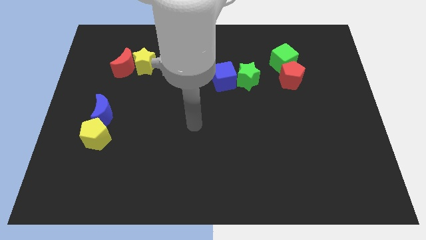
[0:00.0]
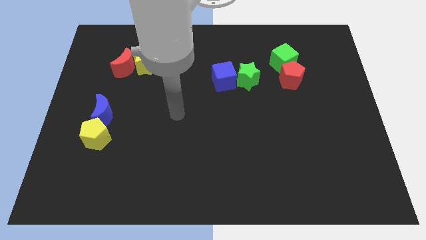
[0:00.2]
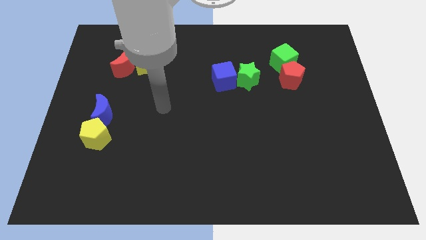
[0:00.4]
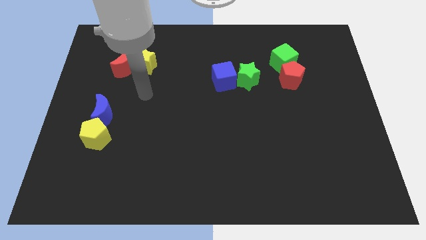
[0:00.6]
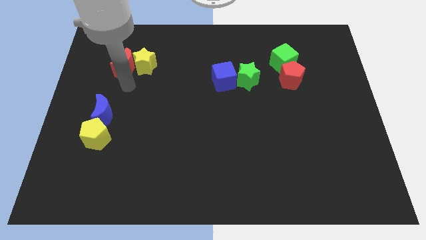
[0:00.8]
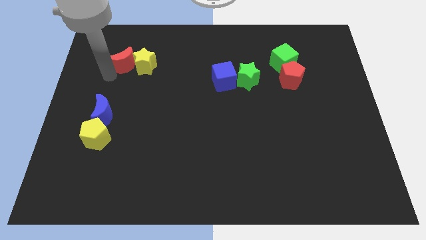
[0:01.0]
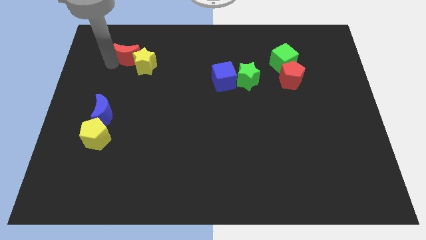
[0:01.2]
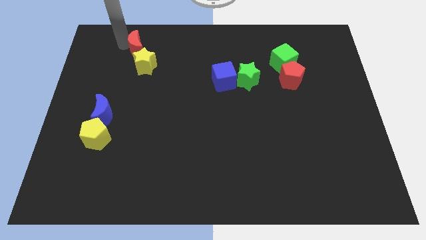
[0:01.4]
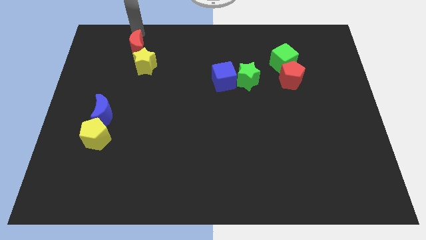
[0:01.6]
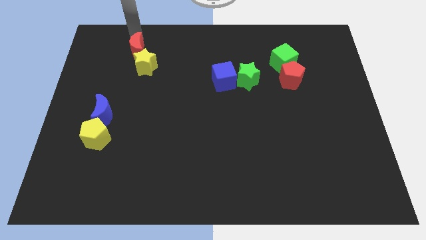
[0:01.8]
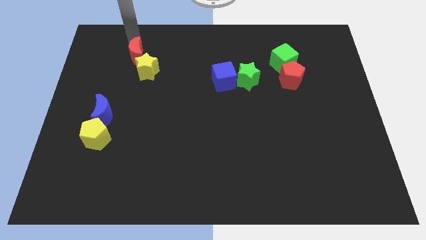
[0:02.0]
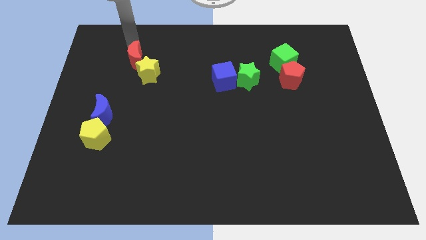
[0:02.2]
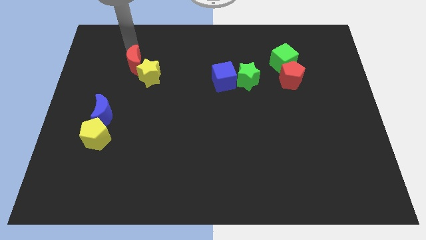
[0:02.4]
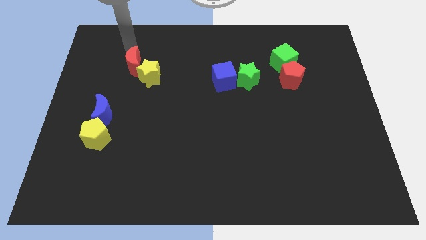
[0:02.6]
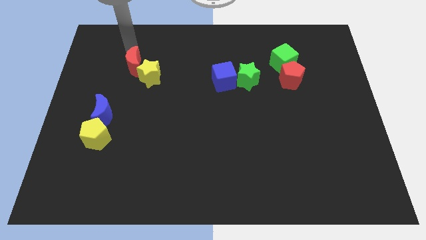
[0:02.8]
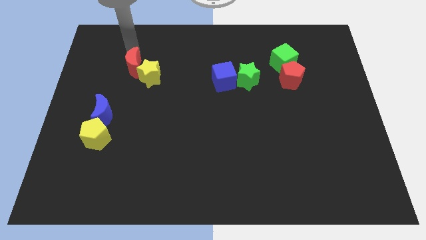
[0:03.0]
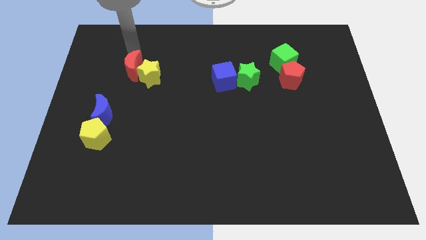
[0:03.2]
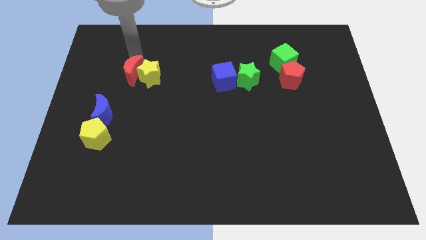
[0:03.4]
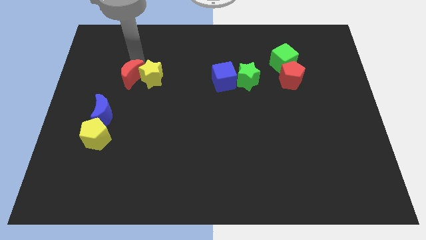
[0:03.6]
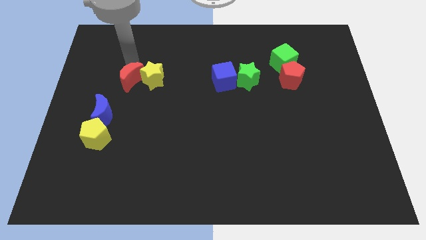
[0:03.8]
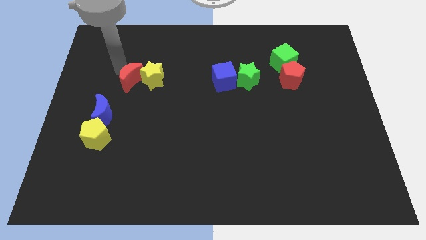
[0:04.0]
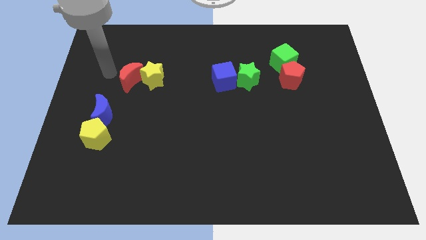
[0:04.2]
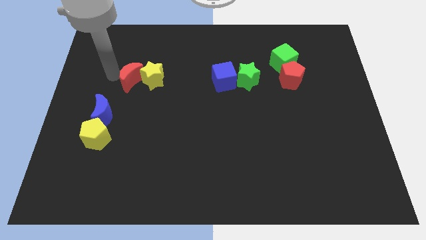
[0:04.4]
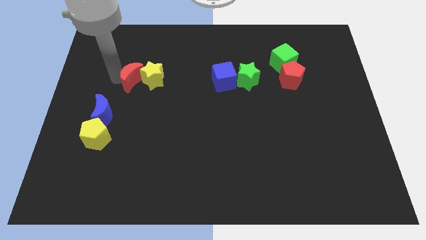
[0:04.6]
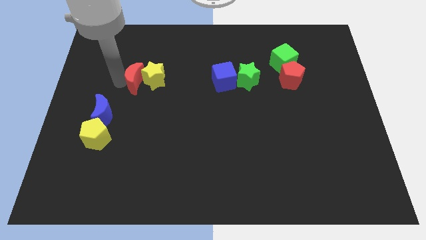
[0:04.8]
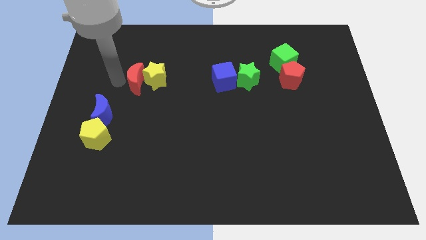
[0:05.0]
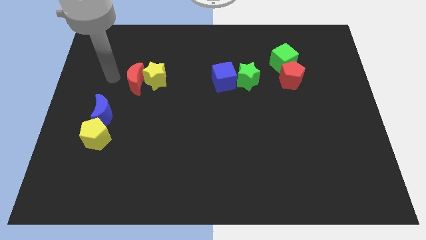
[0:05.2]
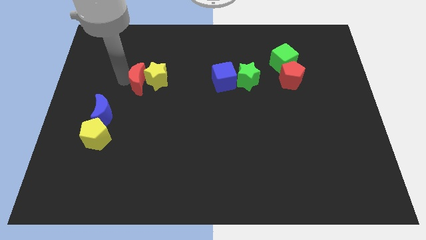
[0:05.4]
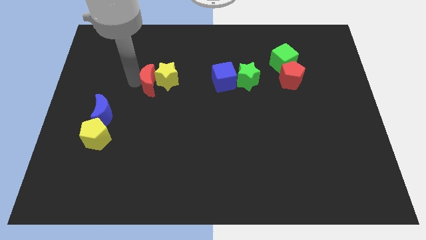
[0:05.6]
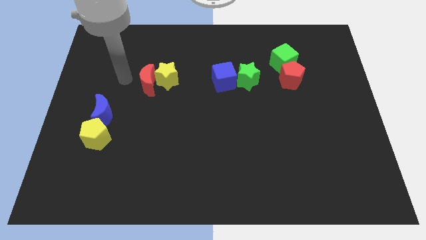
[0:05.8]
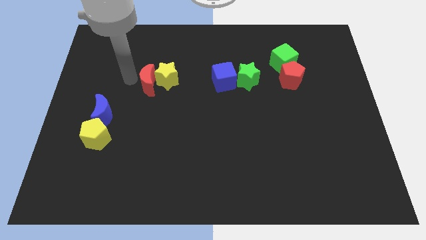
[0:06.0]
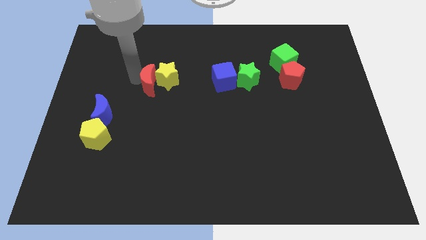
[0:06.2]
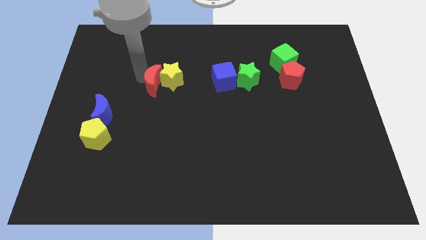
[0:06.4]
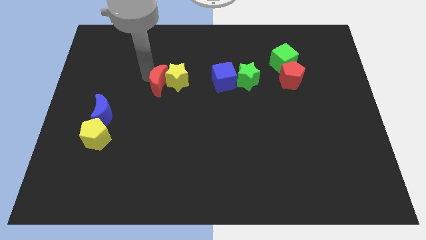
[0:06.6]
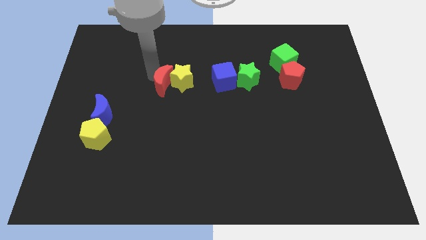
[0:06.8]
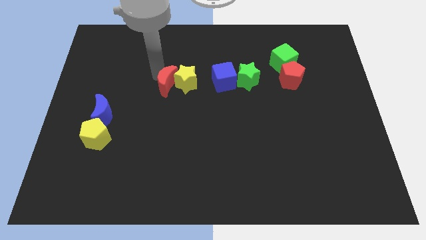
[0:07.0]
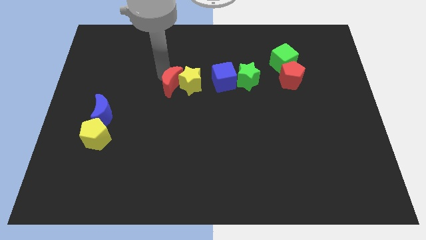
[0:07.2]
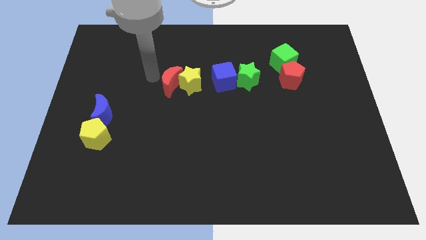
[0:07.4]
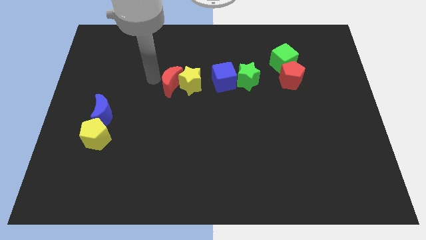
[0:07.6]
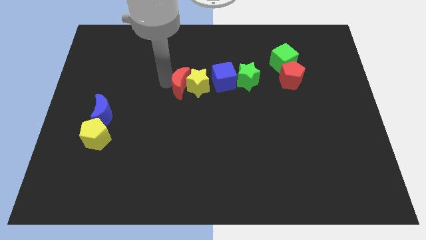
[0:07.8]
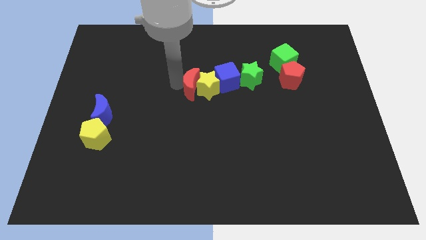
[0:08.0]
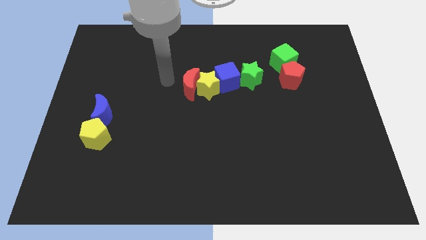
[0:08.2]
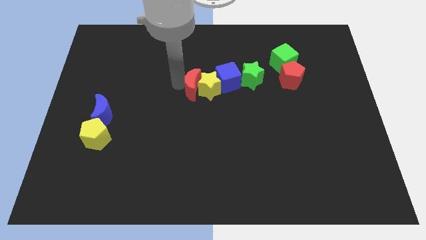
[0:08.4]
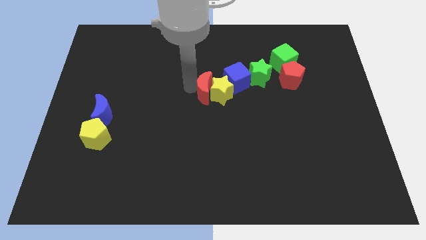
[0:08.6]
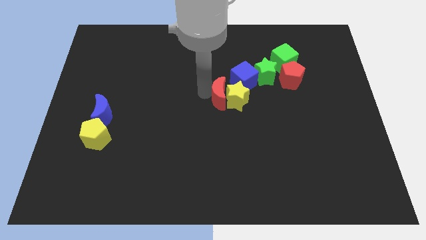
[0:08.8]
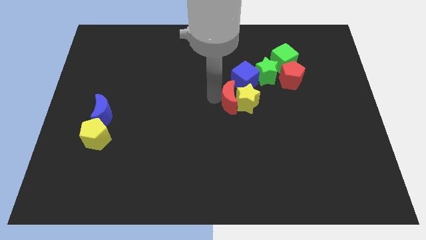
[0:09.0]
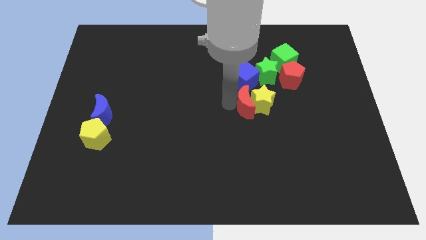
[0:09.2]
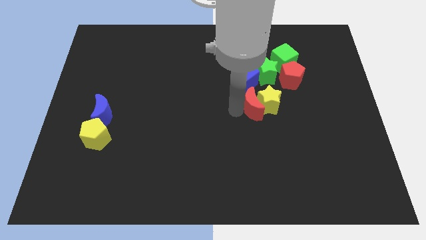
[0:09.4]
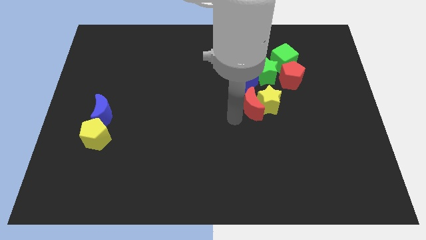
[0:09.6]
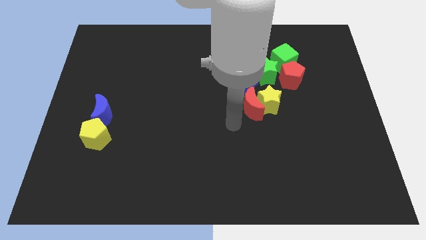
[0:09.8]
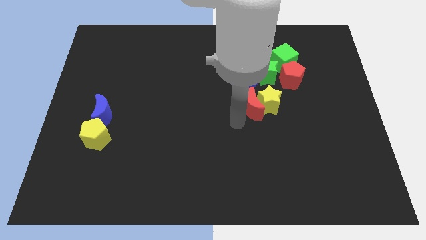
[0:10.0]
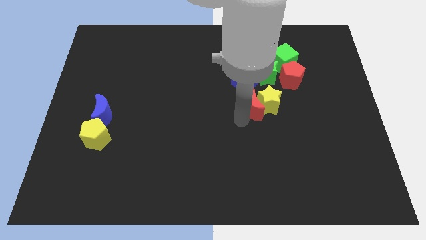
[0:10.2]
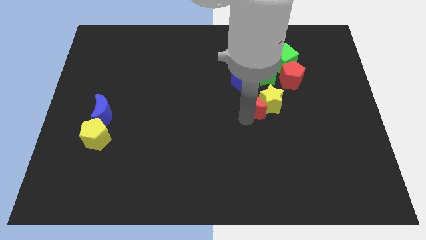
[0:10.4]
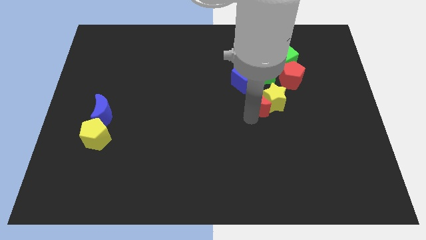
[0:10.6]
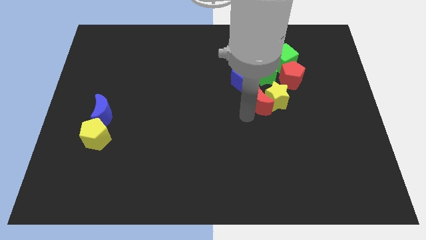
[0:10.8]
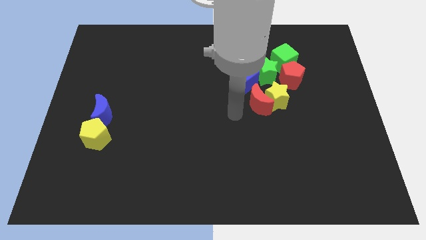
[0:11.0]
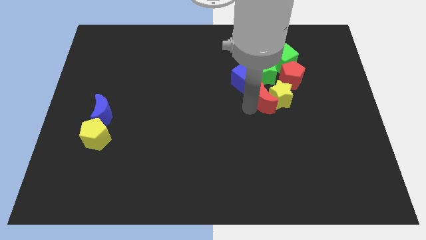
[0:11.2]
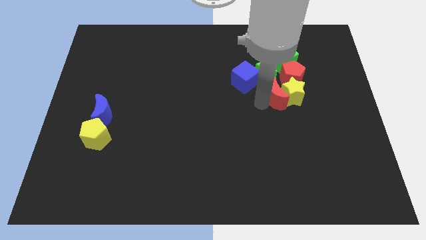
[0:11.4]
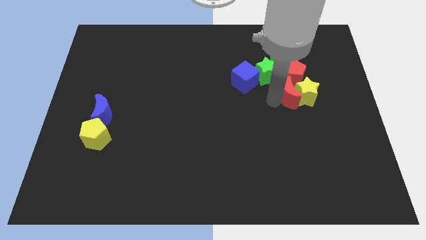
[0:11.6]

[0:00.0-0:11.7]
put the red moon next to the red pentagon

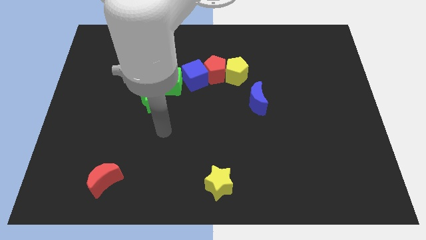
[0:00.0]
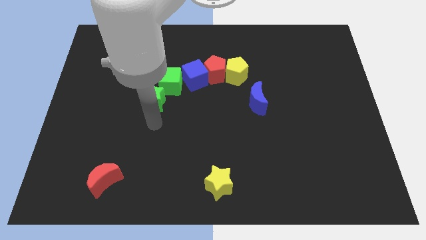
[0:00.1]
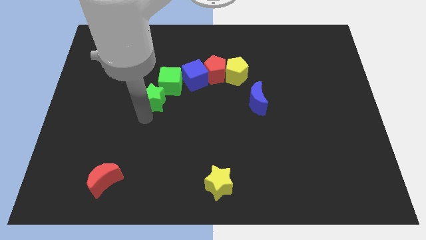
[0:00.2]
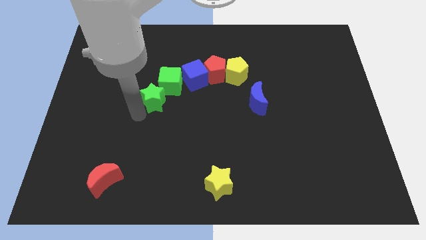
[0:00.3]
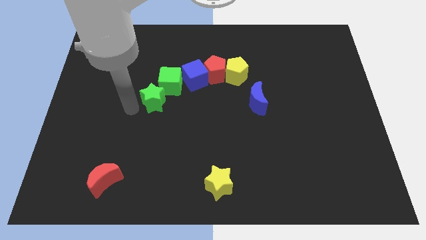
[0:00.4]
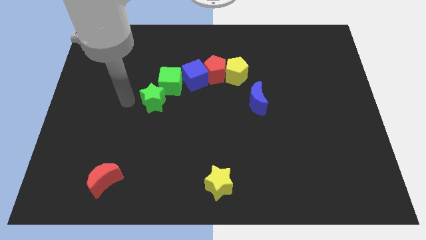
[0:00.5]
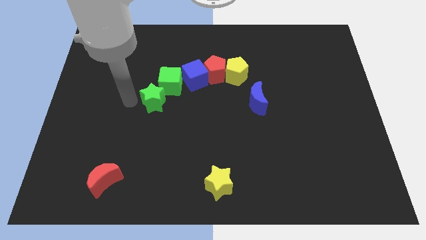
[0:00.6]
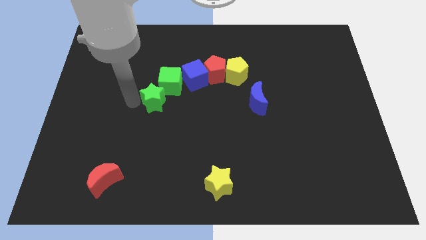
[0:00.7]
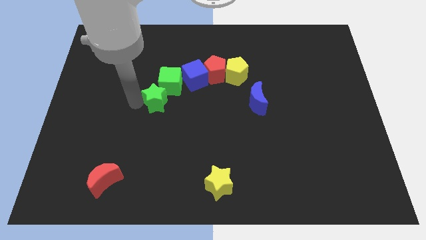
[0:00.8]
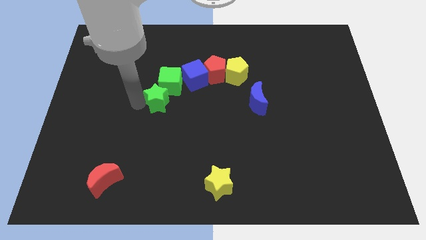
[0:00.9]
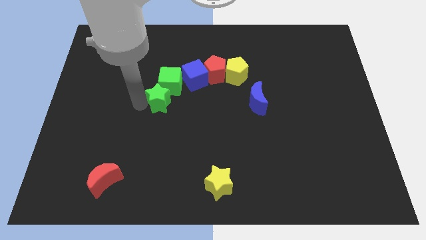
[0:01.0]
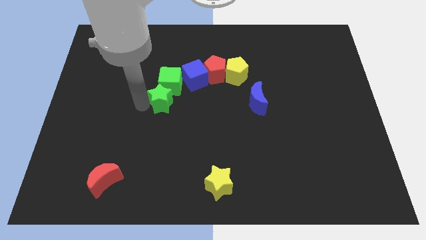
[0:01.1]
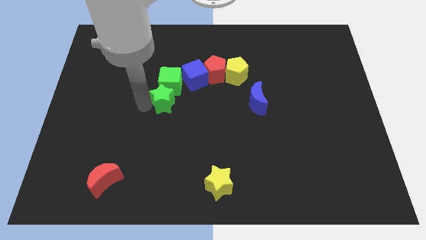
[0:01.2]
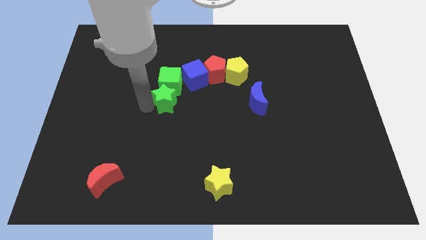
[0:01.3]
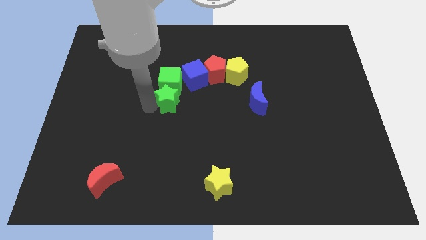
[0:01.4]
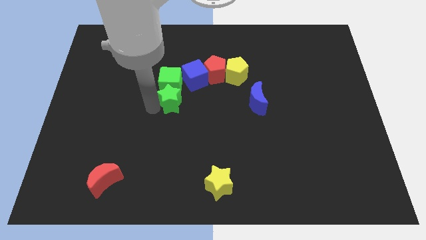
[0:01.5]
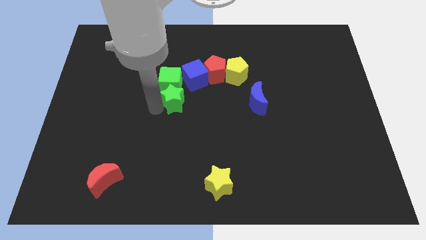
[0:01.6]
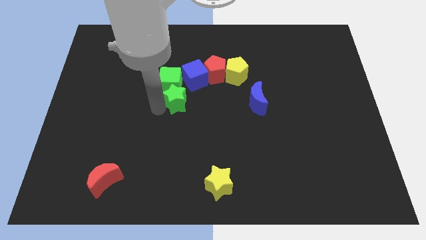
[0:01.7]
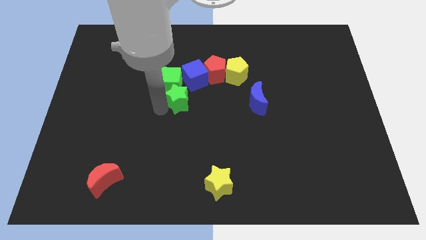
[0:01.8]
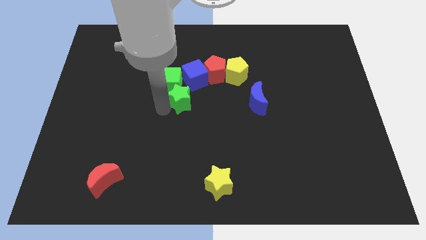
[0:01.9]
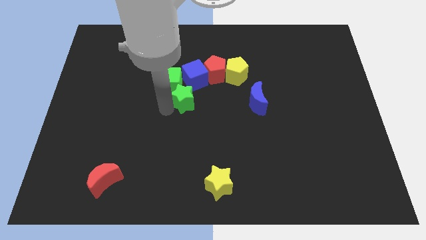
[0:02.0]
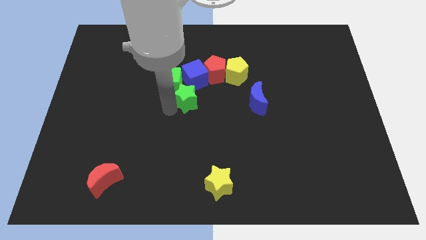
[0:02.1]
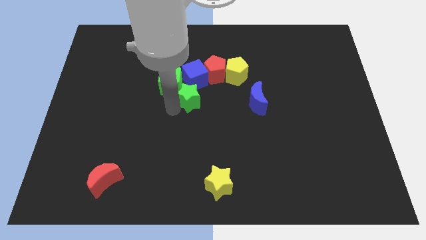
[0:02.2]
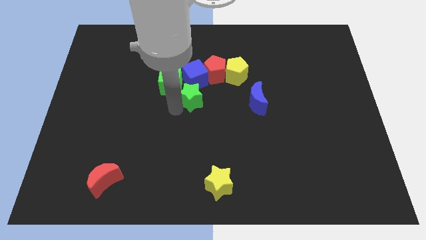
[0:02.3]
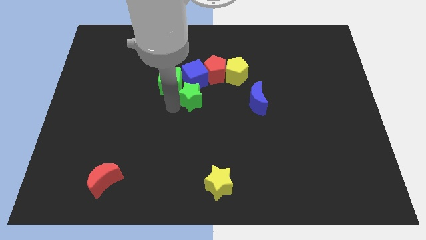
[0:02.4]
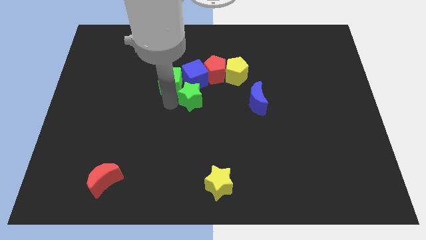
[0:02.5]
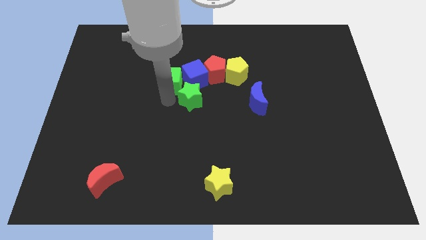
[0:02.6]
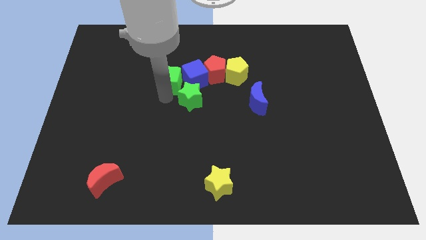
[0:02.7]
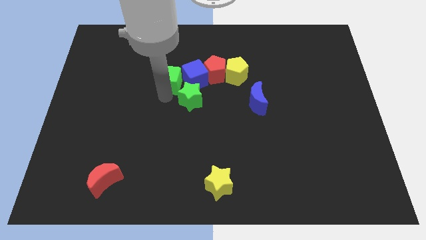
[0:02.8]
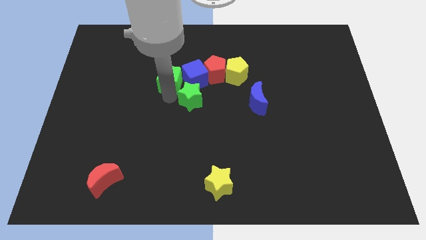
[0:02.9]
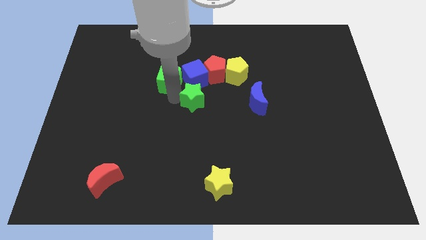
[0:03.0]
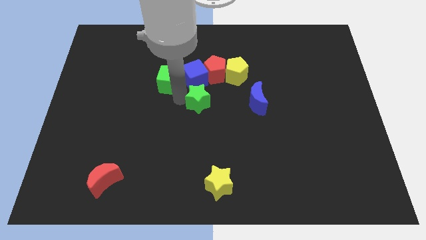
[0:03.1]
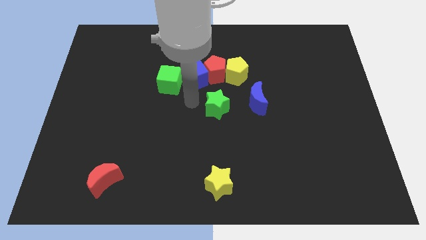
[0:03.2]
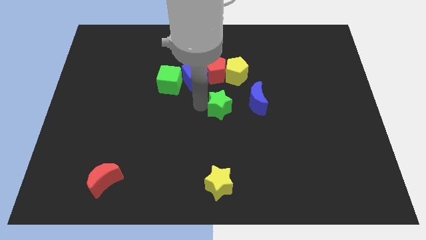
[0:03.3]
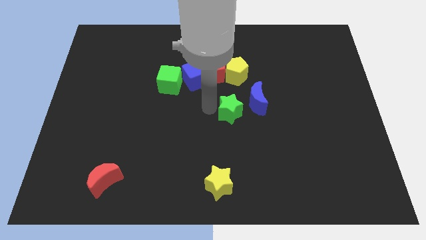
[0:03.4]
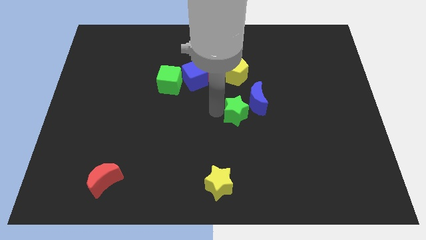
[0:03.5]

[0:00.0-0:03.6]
move the green star to the blue moon
